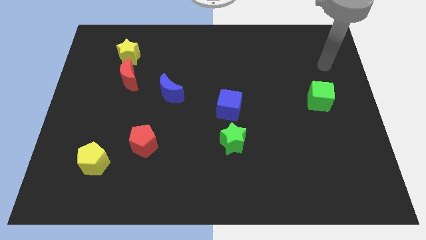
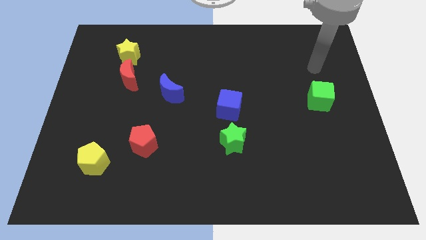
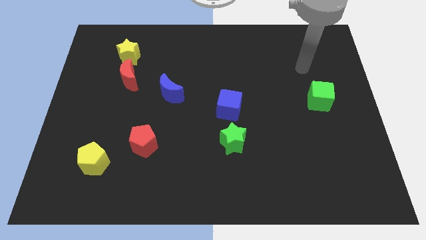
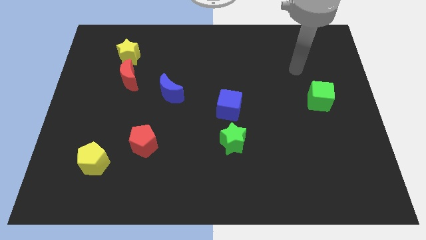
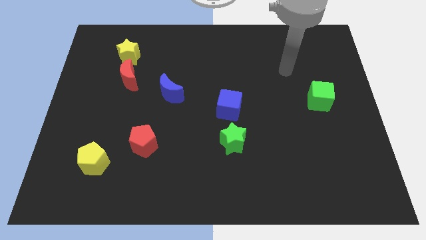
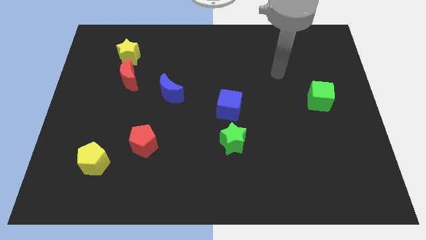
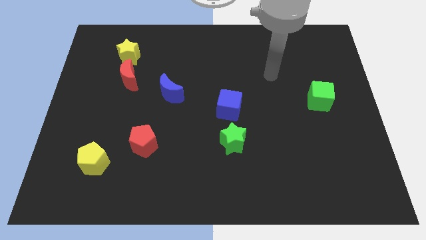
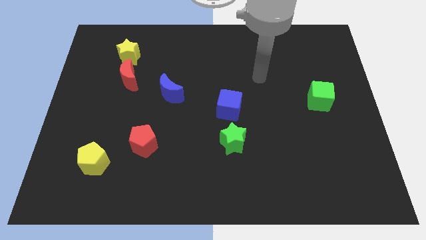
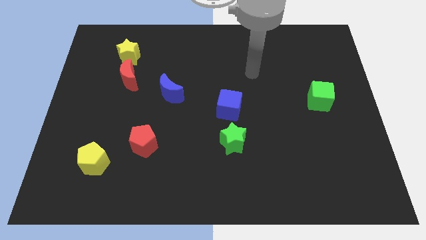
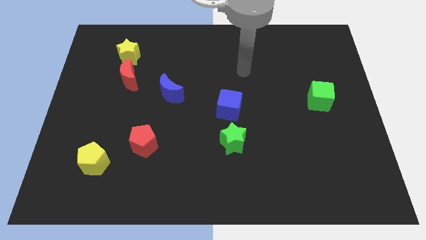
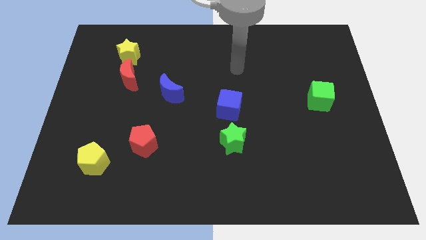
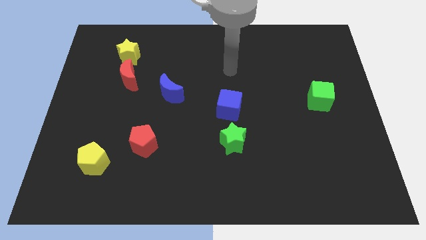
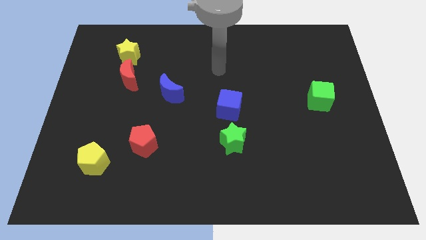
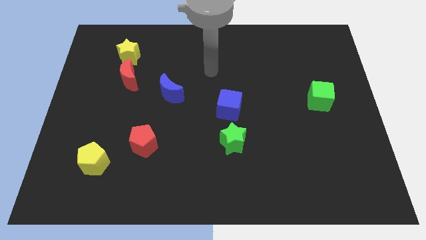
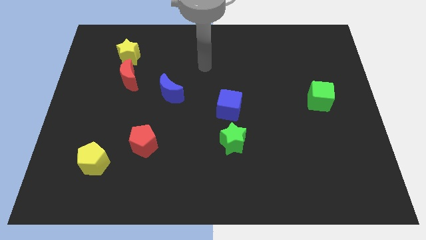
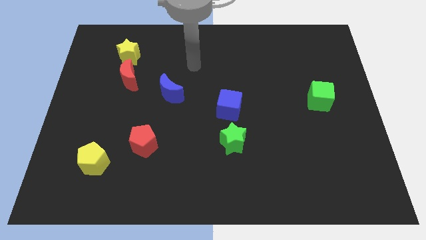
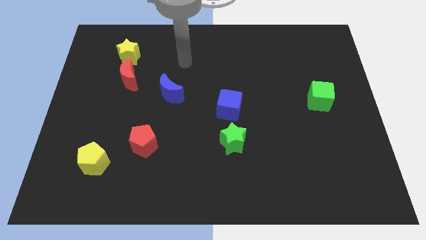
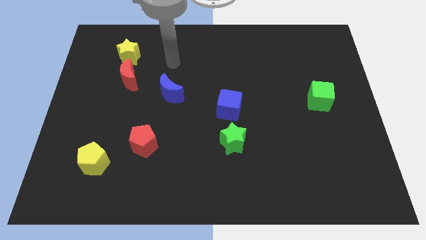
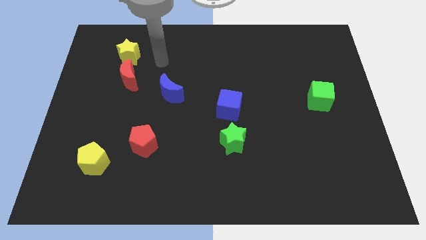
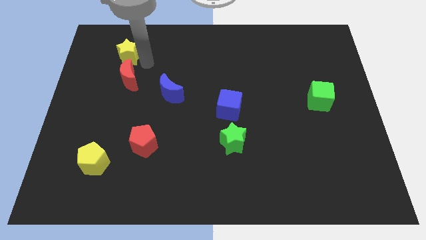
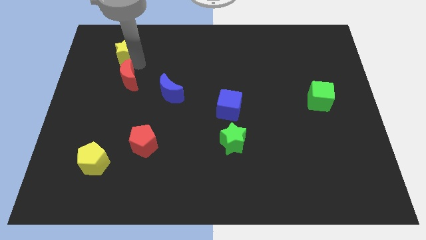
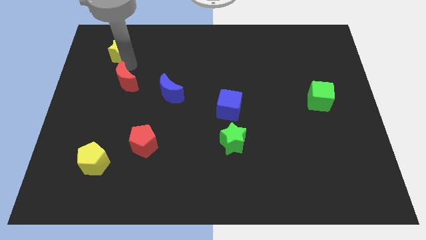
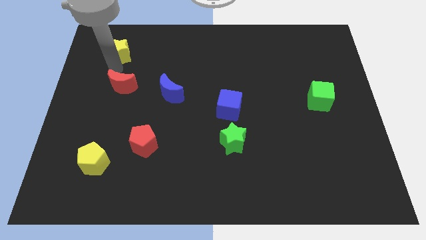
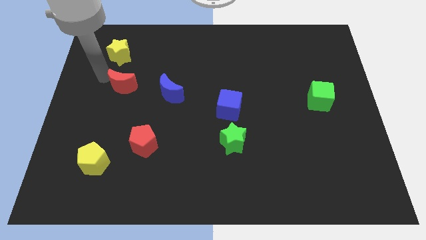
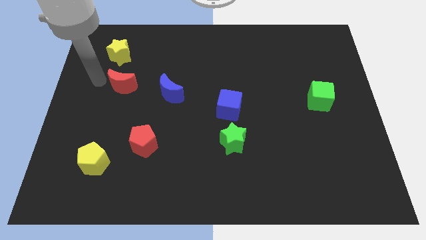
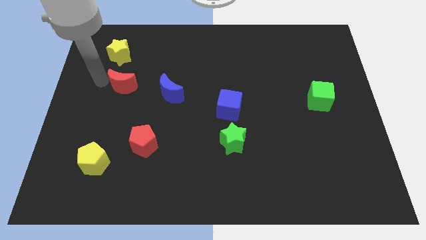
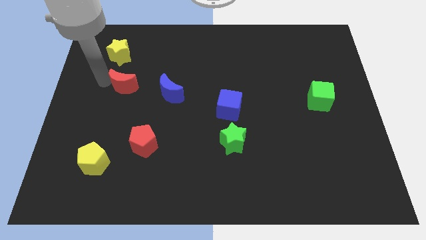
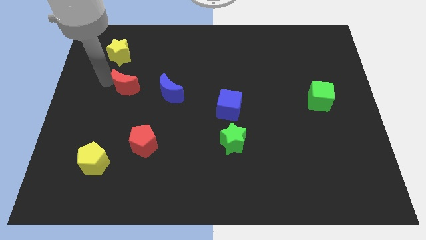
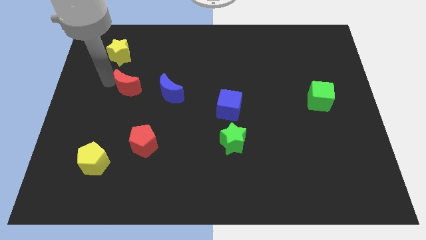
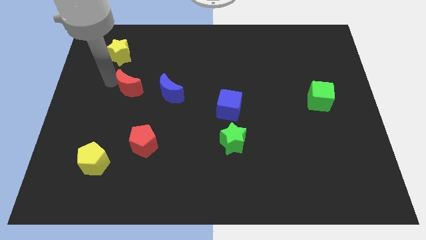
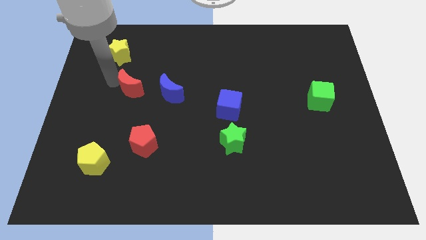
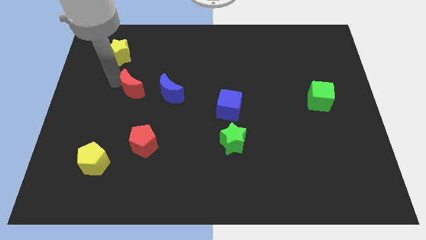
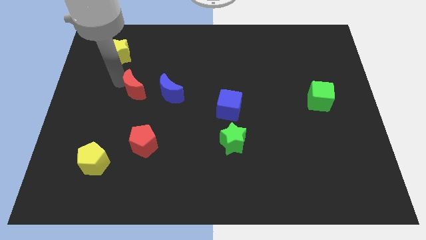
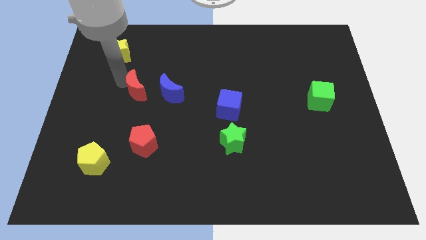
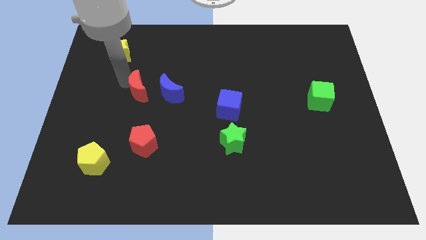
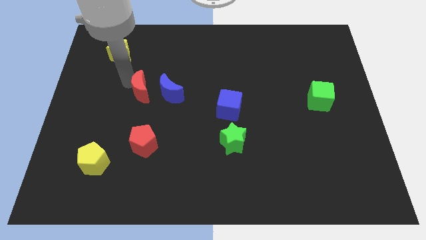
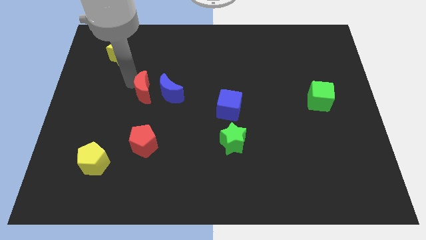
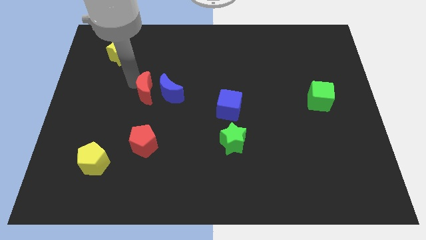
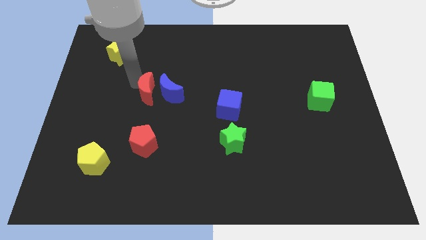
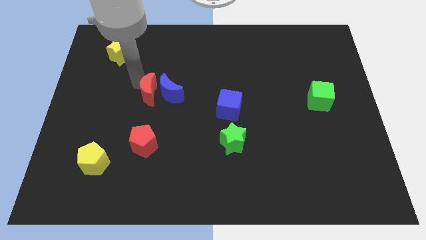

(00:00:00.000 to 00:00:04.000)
move the red moon diagonally downwards and to the right a little

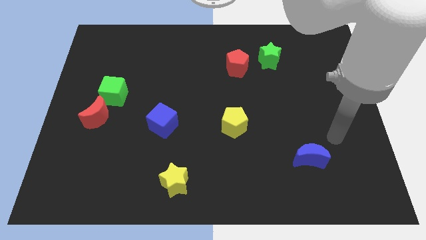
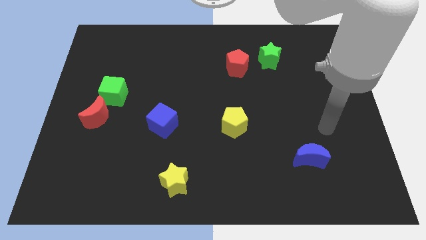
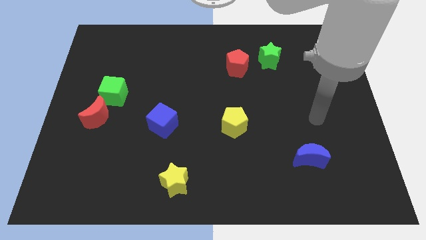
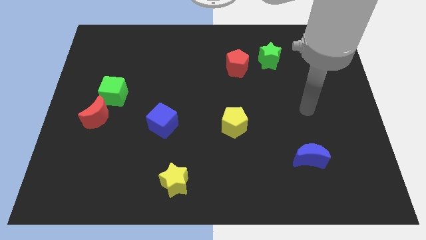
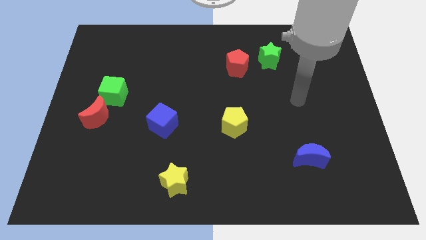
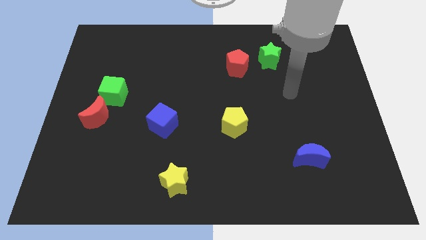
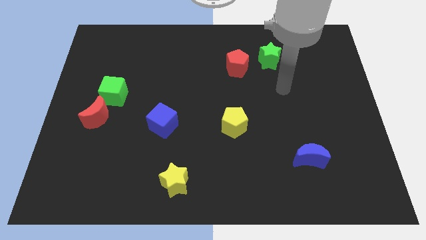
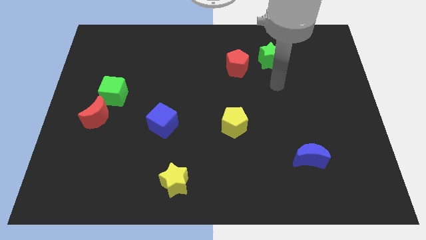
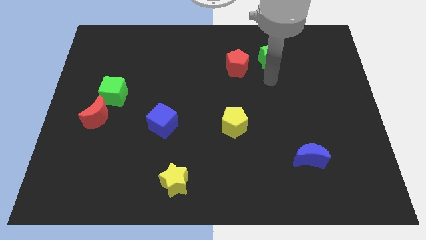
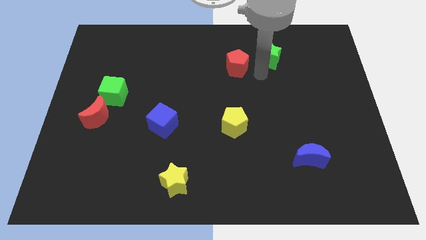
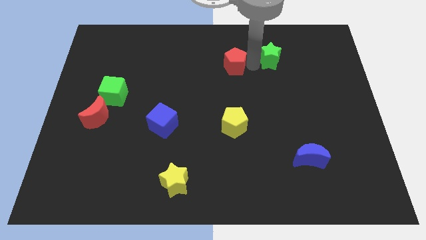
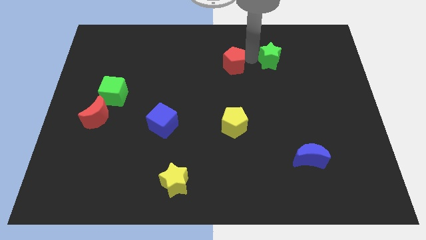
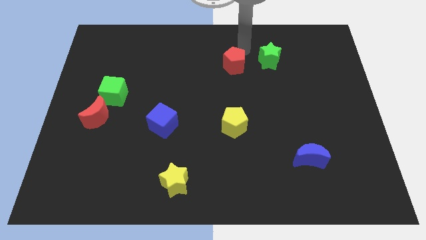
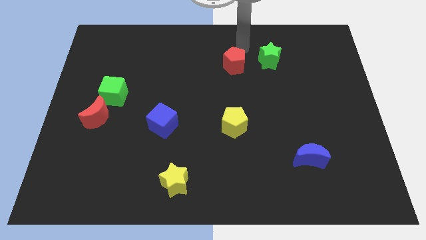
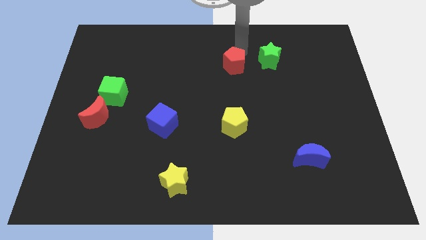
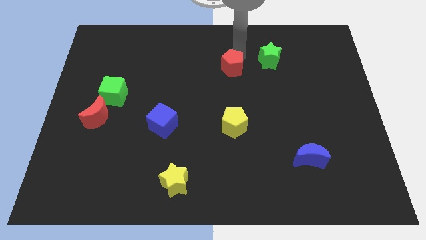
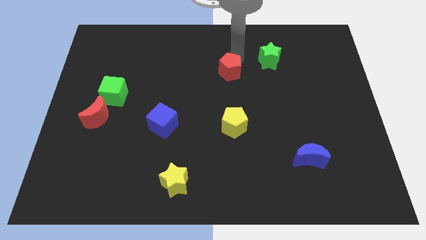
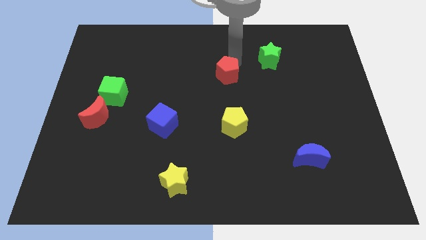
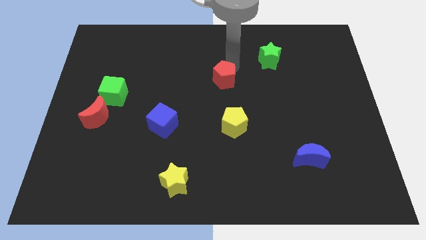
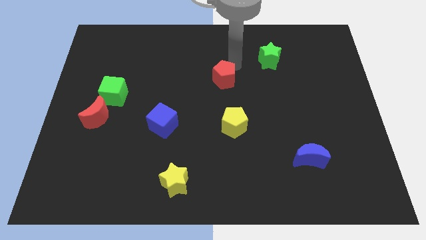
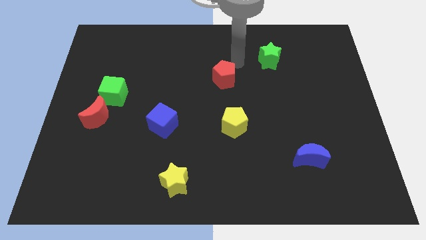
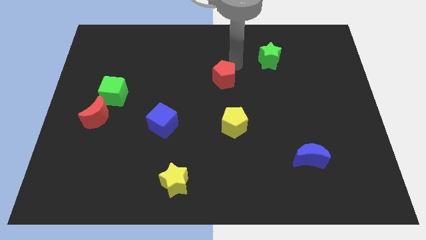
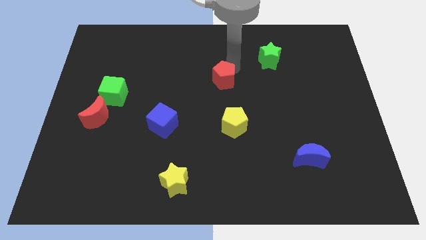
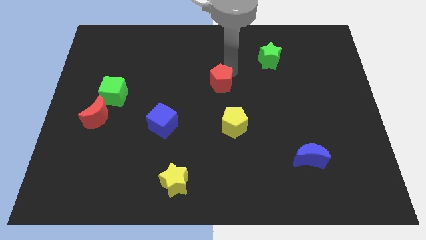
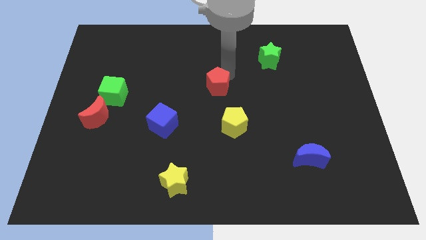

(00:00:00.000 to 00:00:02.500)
push the red pentagon diagonally down and to the left slightly

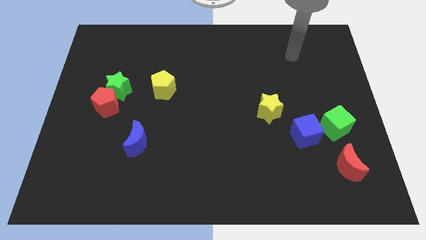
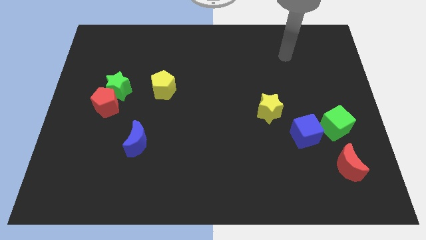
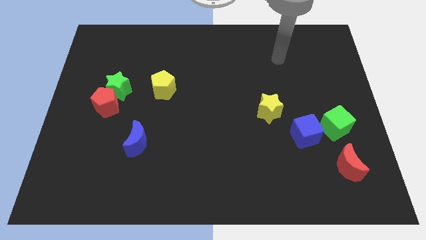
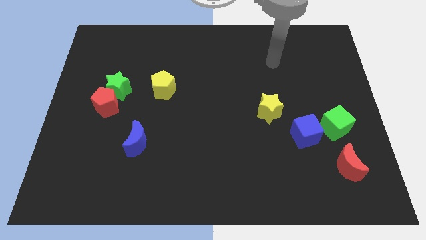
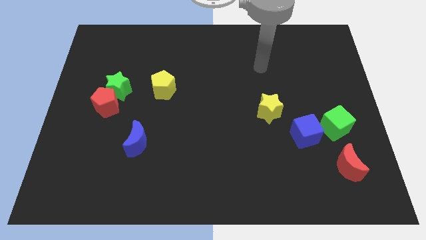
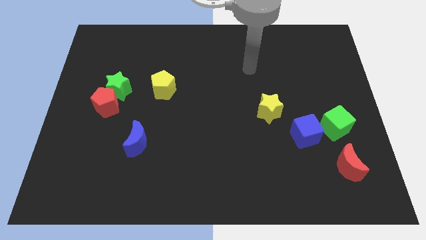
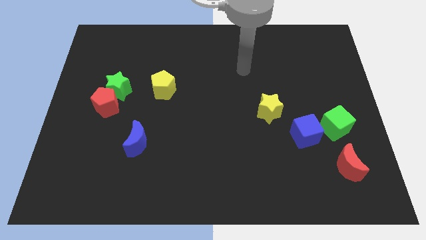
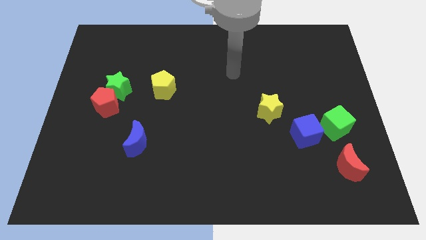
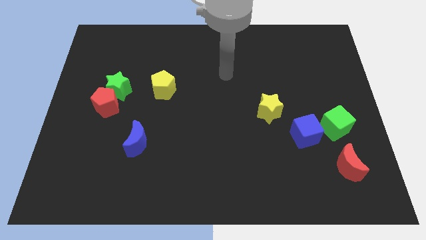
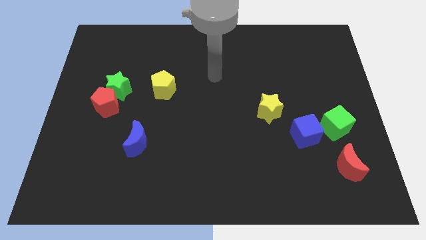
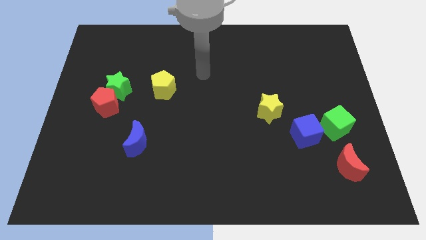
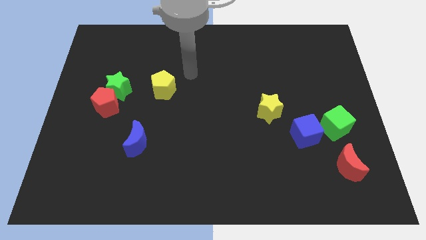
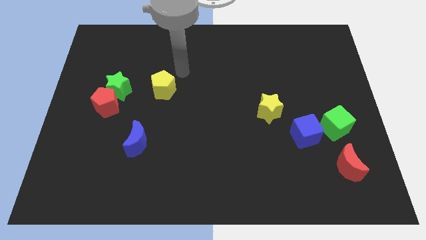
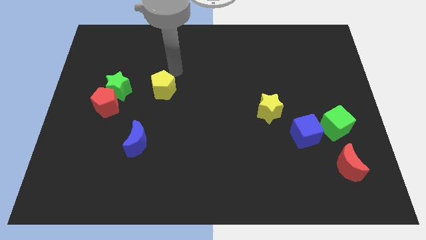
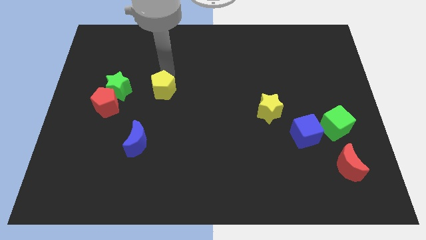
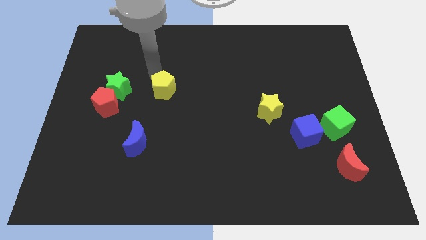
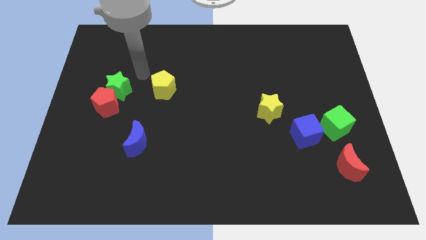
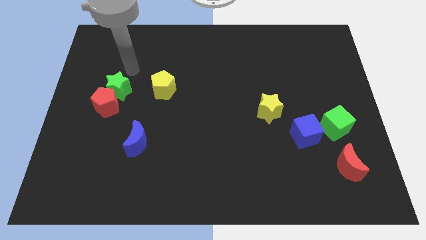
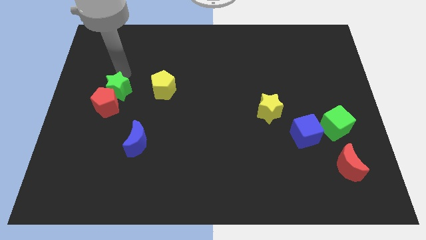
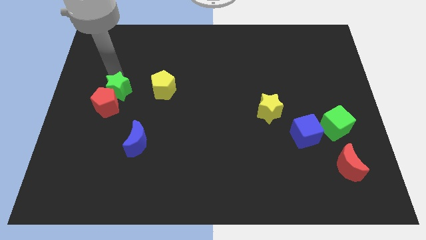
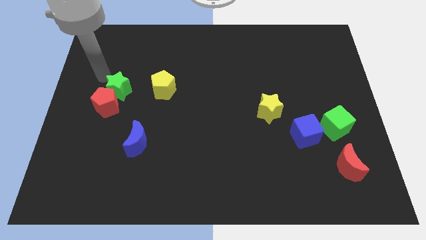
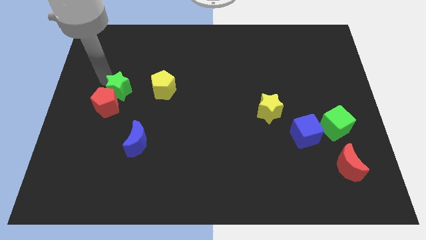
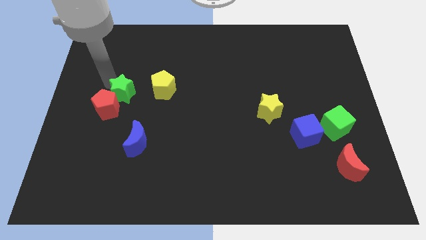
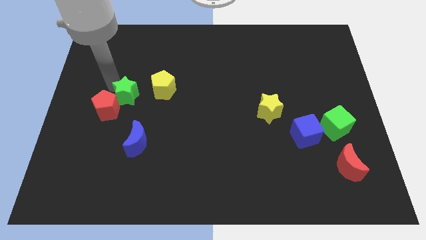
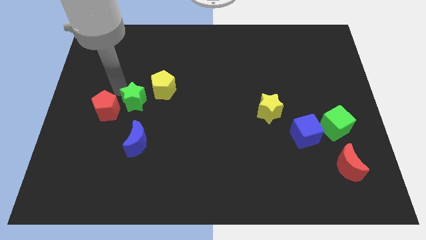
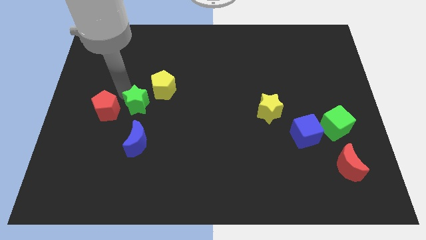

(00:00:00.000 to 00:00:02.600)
slide the green star down and to the right slightly
